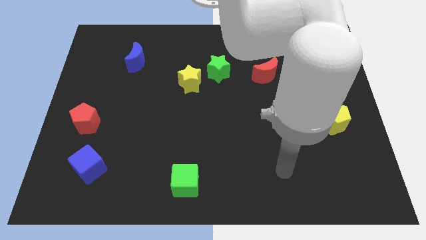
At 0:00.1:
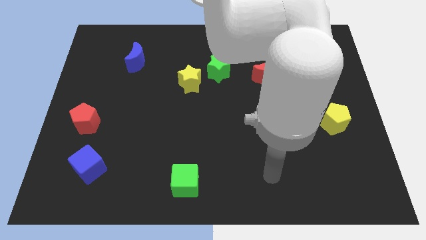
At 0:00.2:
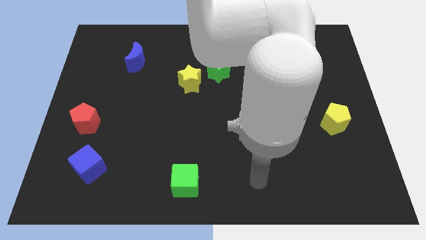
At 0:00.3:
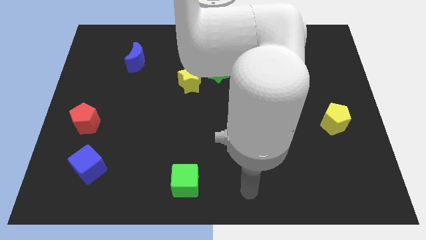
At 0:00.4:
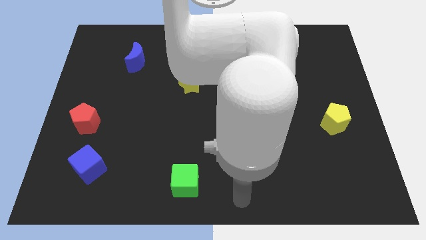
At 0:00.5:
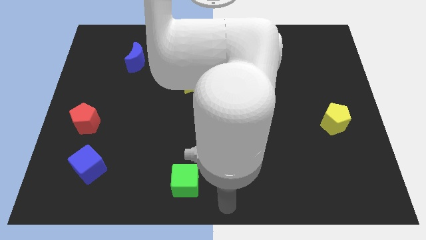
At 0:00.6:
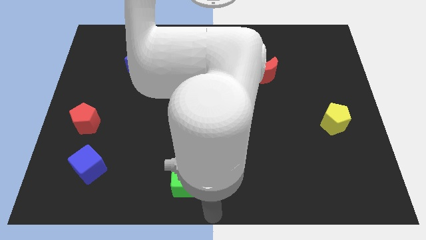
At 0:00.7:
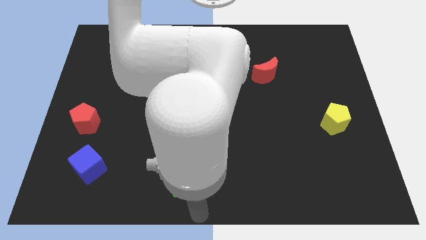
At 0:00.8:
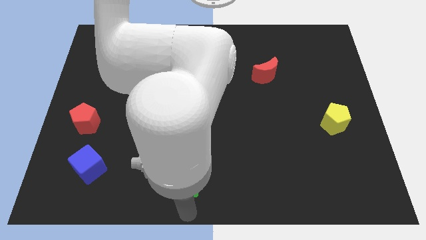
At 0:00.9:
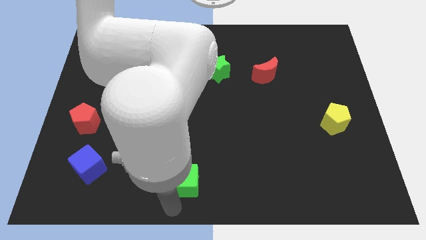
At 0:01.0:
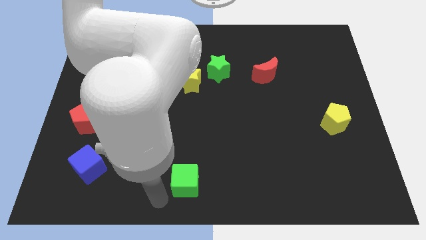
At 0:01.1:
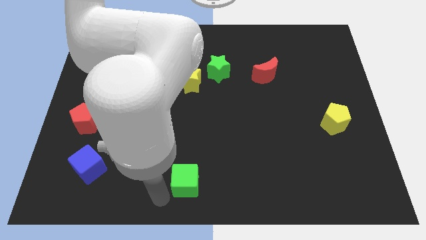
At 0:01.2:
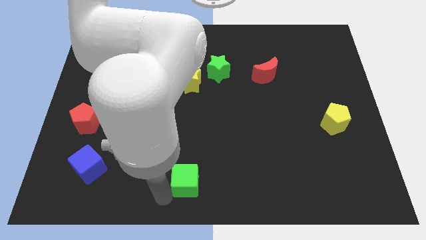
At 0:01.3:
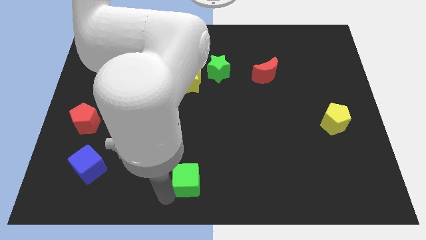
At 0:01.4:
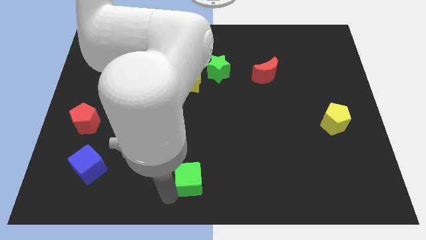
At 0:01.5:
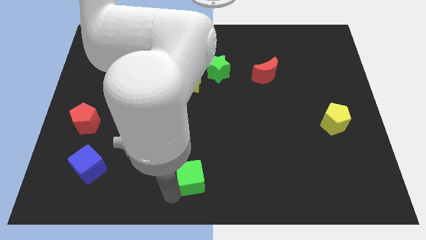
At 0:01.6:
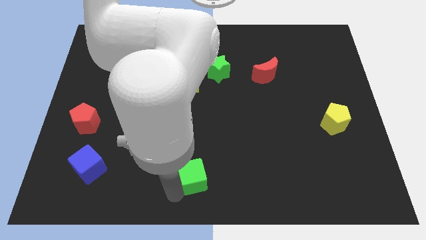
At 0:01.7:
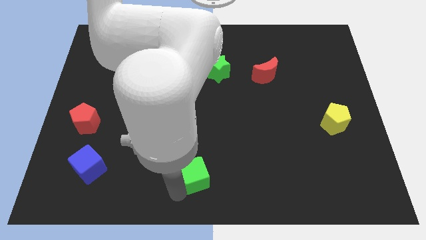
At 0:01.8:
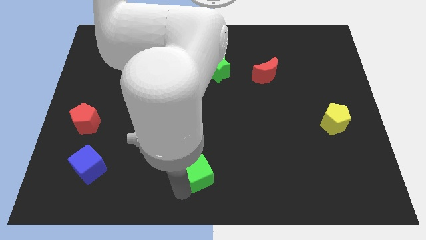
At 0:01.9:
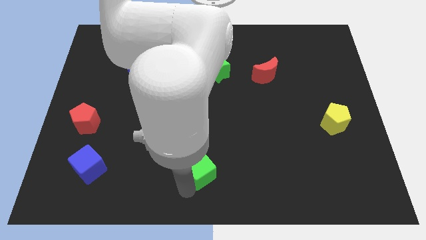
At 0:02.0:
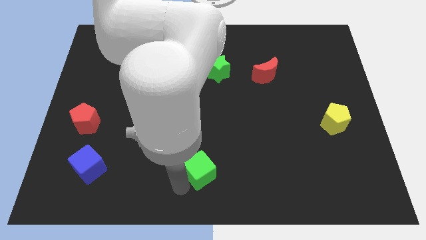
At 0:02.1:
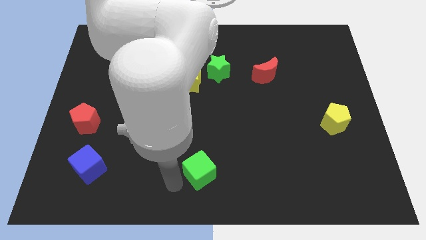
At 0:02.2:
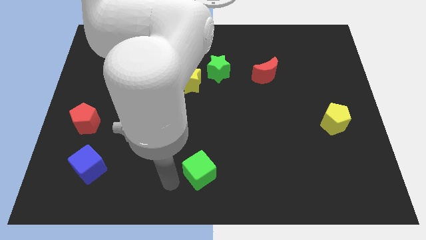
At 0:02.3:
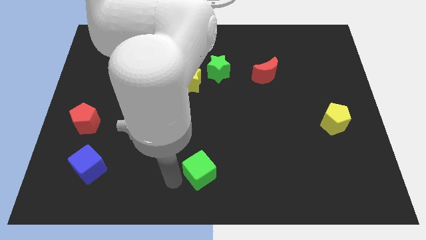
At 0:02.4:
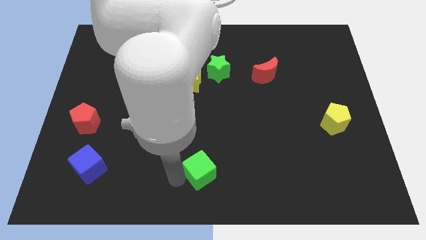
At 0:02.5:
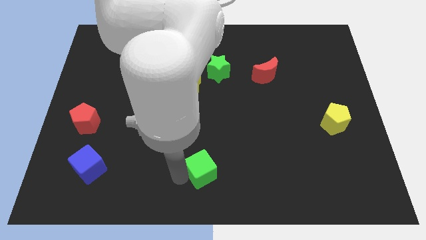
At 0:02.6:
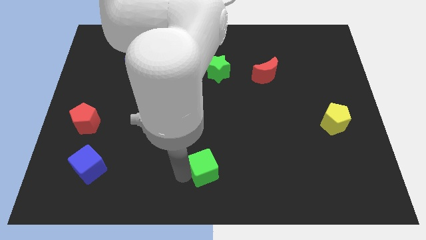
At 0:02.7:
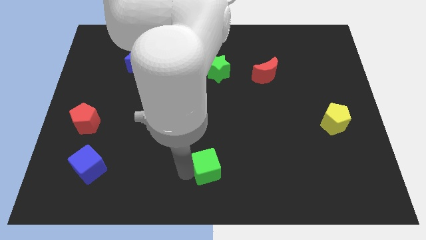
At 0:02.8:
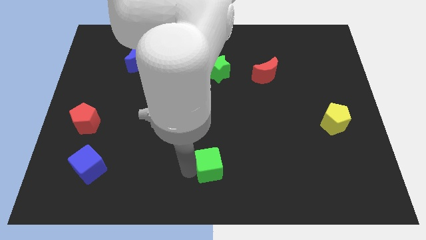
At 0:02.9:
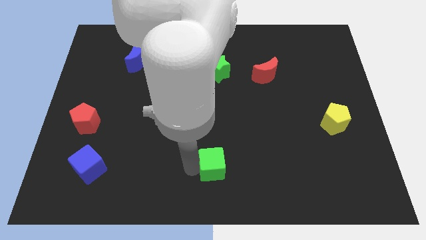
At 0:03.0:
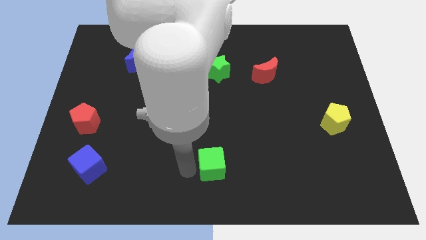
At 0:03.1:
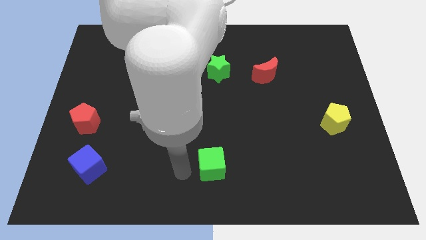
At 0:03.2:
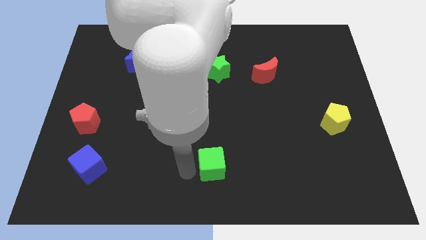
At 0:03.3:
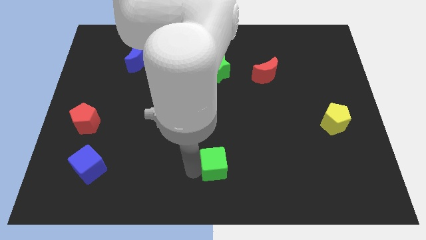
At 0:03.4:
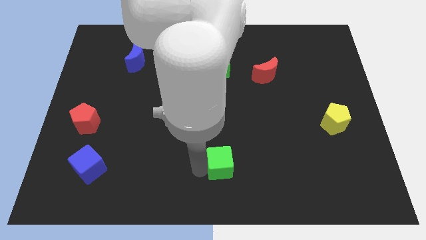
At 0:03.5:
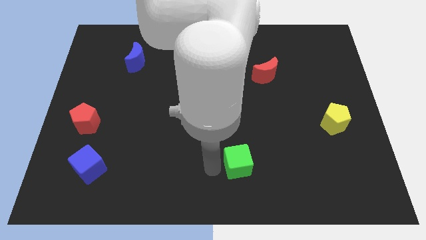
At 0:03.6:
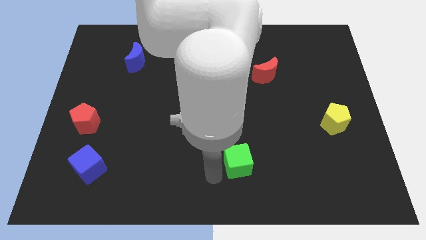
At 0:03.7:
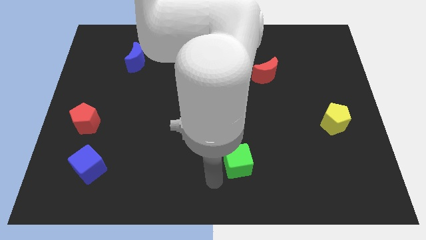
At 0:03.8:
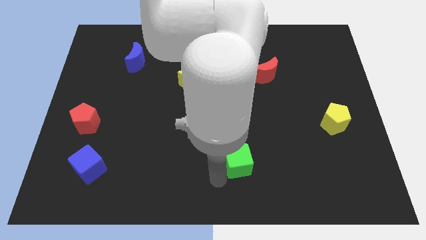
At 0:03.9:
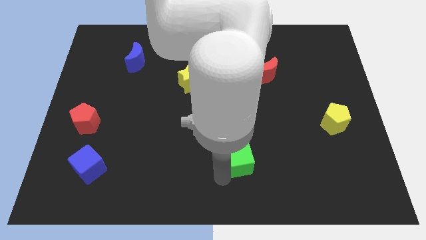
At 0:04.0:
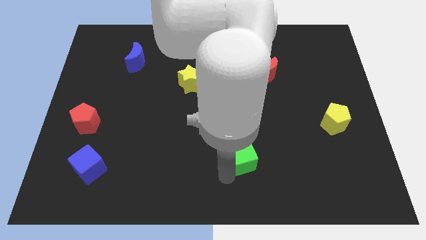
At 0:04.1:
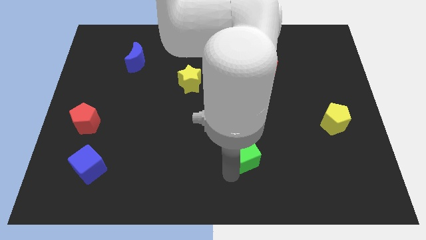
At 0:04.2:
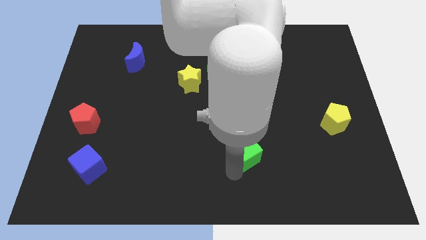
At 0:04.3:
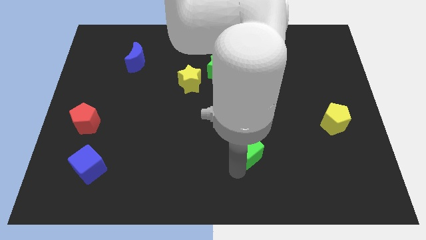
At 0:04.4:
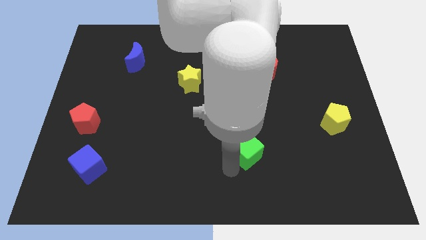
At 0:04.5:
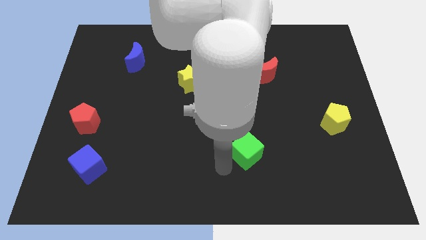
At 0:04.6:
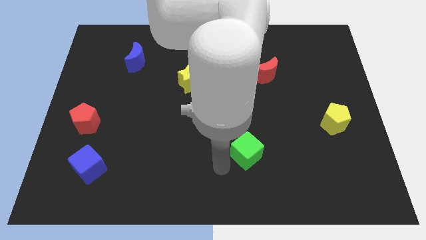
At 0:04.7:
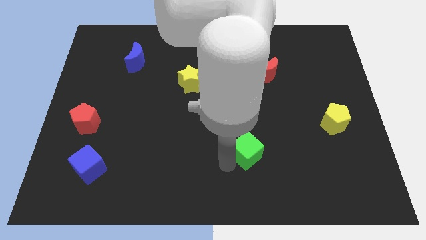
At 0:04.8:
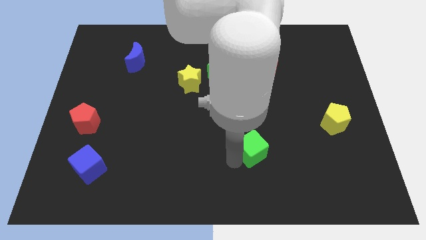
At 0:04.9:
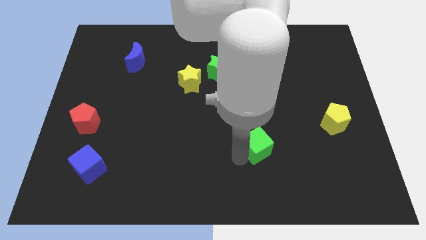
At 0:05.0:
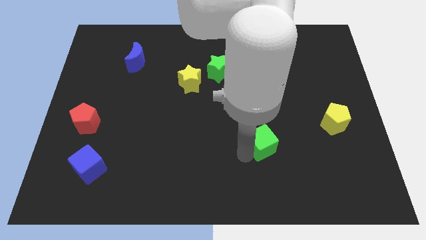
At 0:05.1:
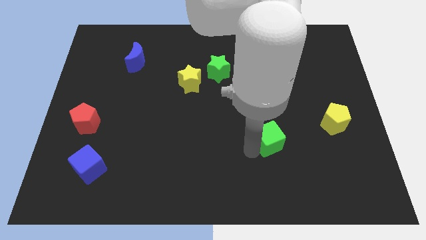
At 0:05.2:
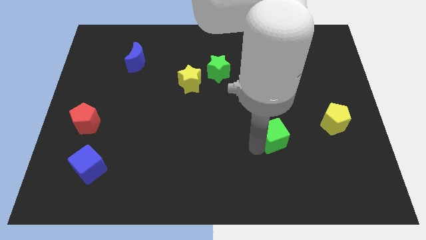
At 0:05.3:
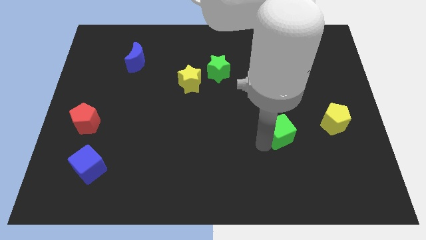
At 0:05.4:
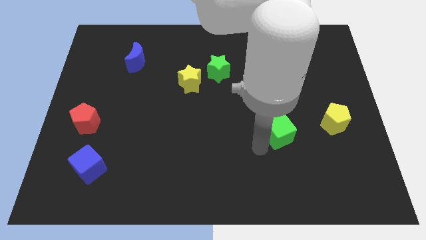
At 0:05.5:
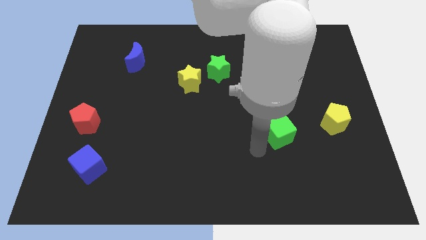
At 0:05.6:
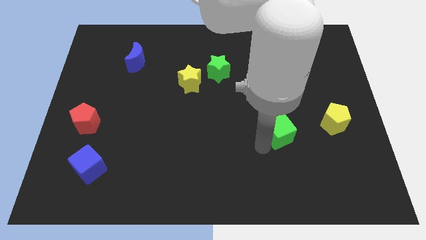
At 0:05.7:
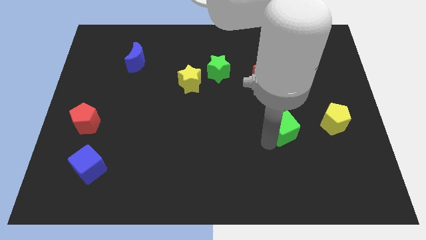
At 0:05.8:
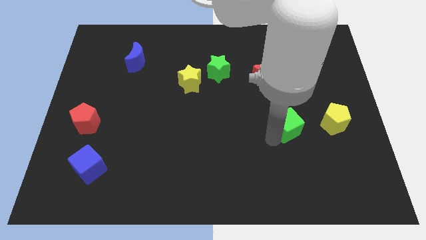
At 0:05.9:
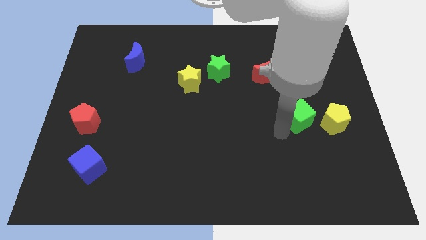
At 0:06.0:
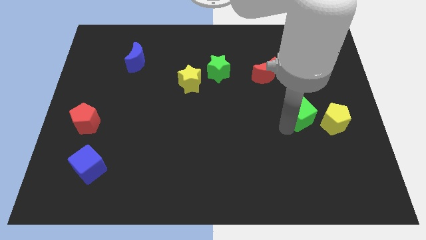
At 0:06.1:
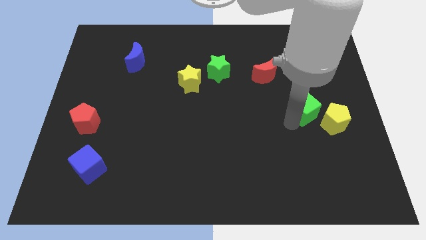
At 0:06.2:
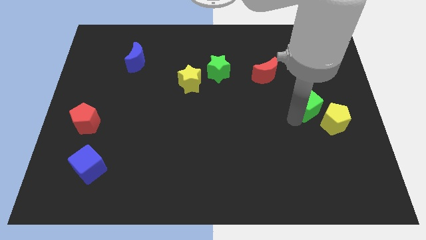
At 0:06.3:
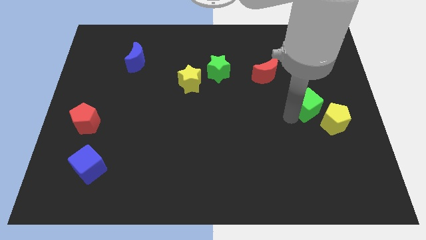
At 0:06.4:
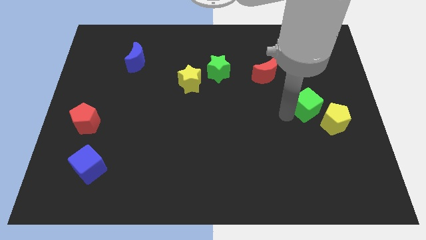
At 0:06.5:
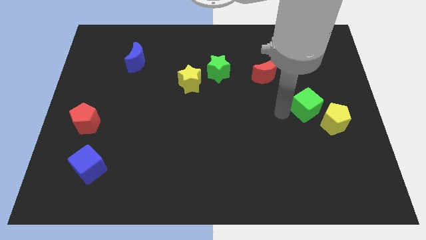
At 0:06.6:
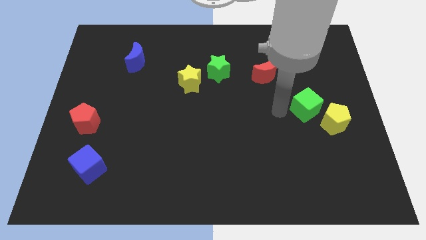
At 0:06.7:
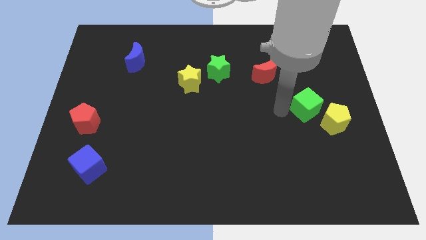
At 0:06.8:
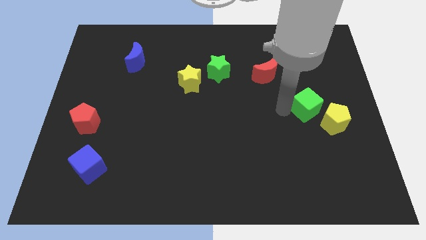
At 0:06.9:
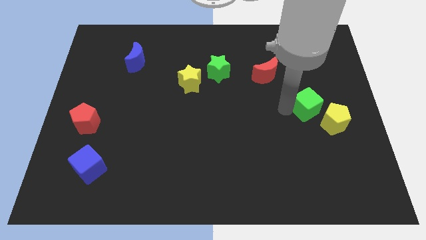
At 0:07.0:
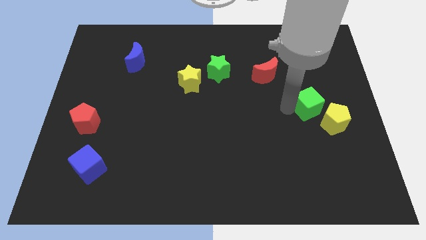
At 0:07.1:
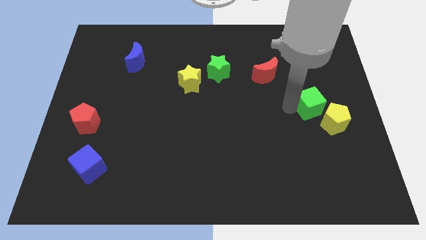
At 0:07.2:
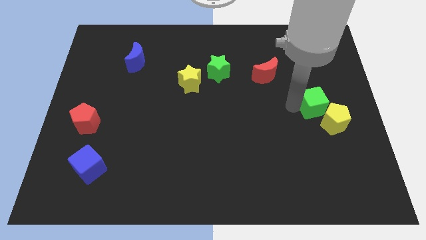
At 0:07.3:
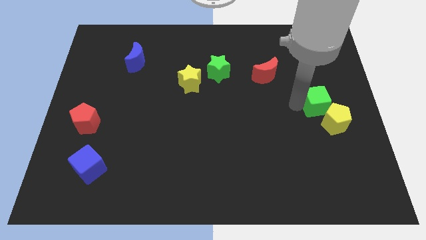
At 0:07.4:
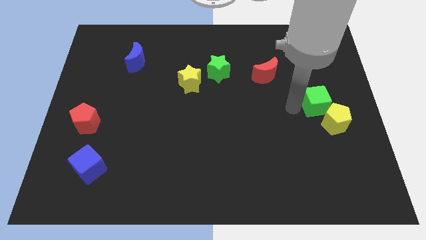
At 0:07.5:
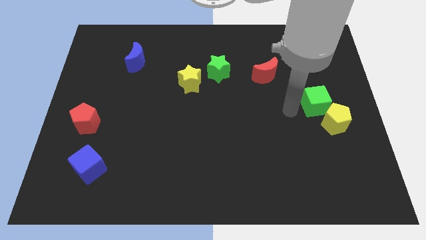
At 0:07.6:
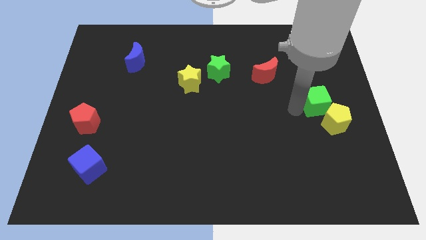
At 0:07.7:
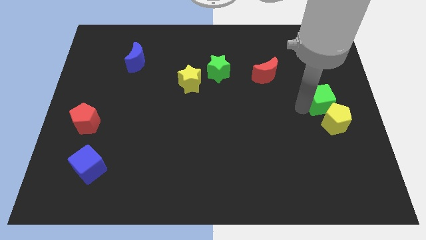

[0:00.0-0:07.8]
slide the green cube to the right side of the board
